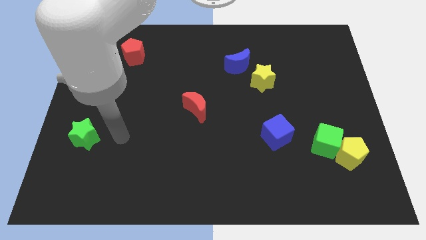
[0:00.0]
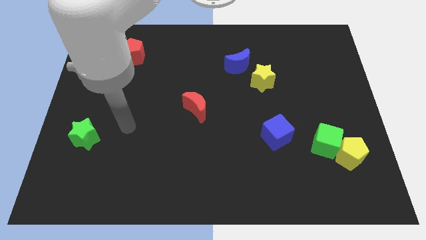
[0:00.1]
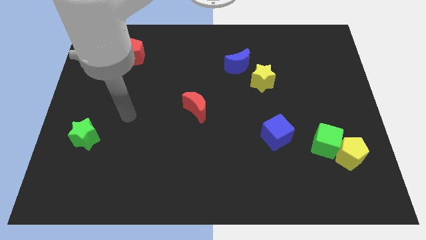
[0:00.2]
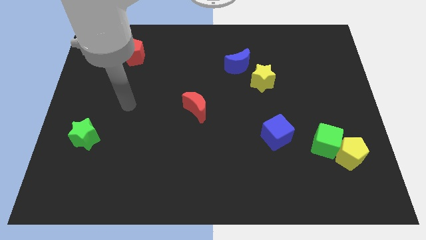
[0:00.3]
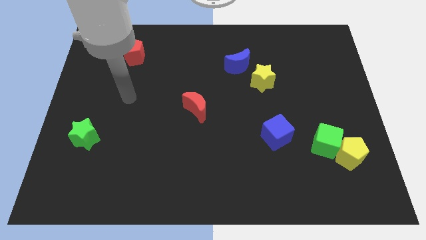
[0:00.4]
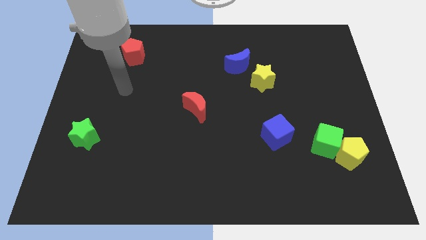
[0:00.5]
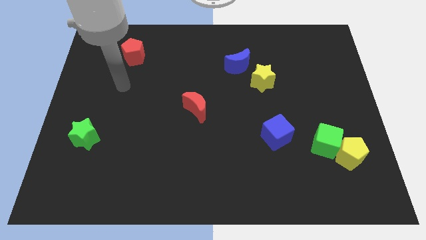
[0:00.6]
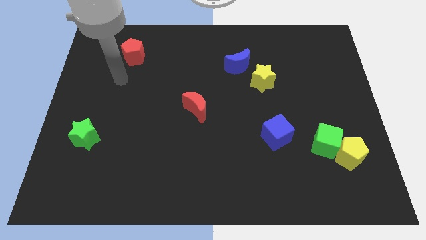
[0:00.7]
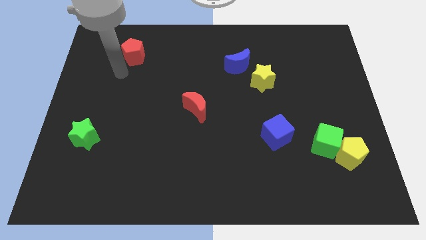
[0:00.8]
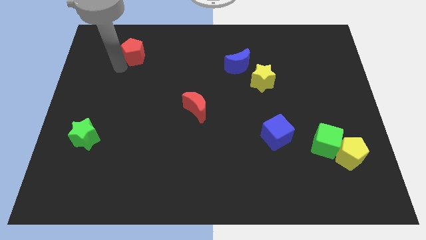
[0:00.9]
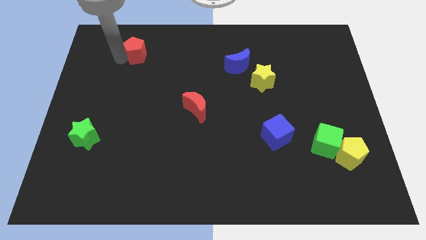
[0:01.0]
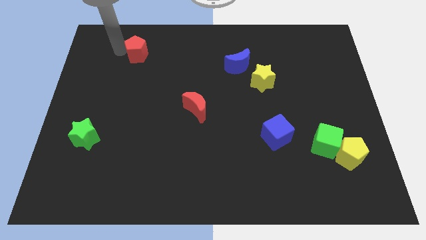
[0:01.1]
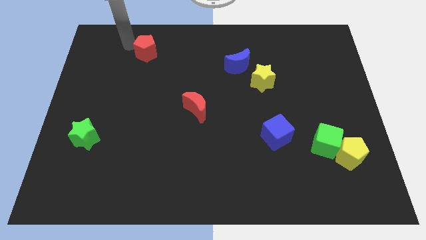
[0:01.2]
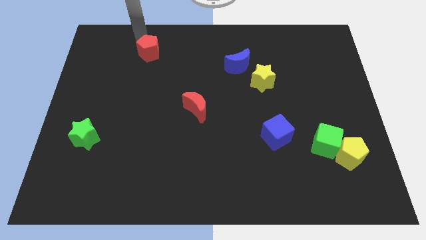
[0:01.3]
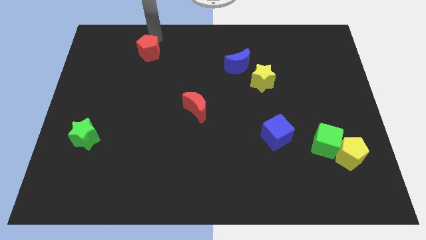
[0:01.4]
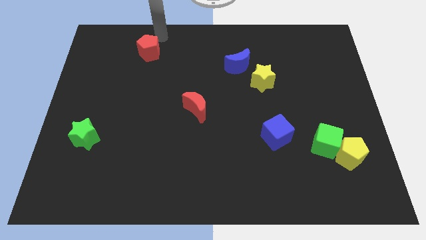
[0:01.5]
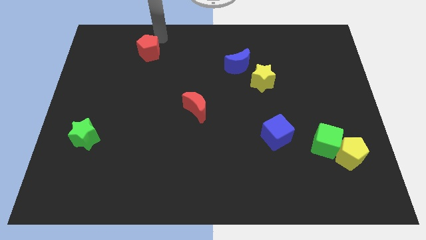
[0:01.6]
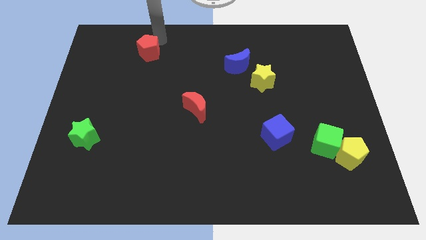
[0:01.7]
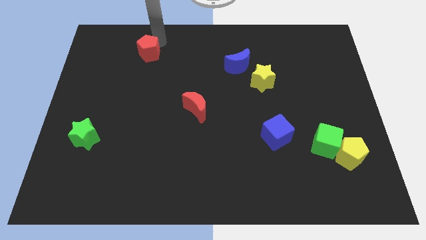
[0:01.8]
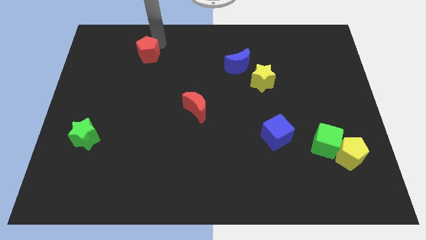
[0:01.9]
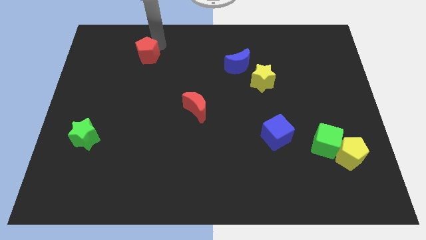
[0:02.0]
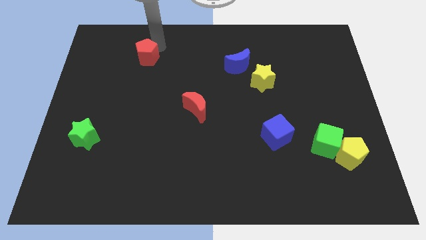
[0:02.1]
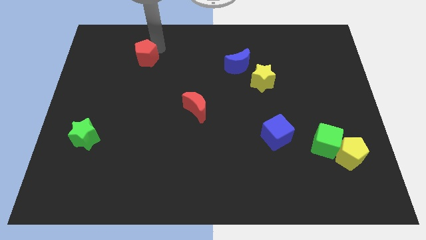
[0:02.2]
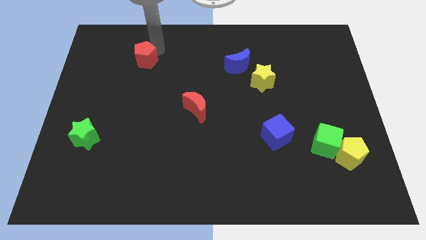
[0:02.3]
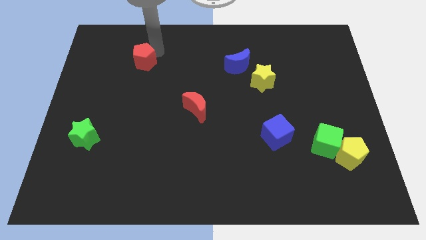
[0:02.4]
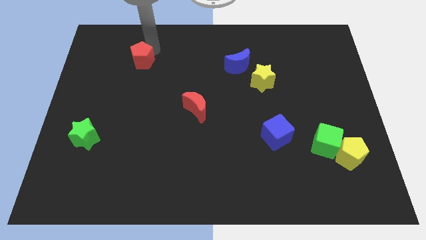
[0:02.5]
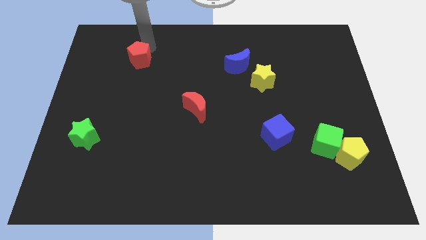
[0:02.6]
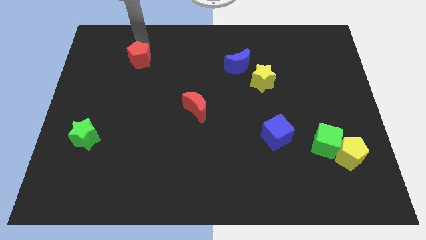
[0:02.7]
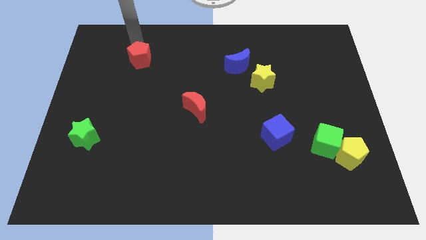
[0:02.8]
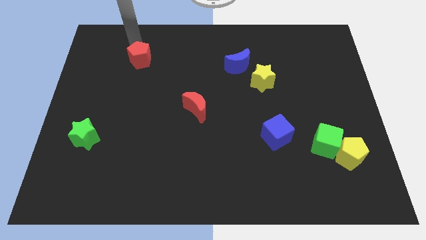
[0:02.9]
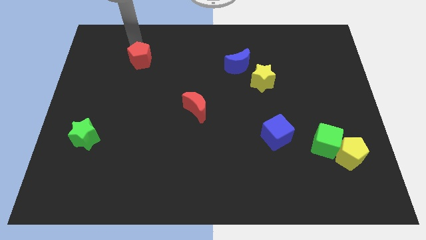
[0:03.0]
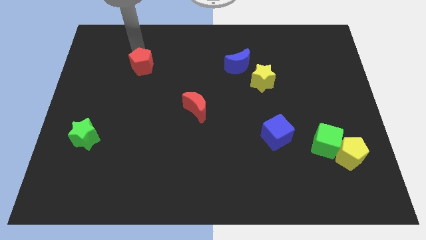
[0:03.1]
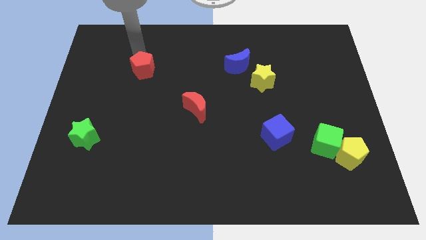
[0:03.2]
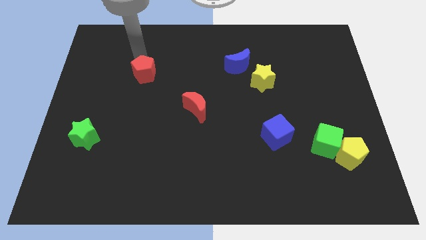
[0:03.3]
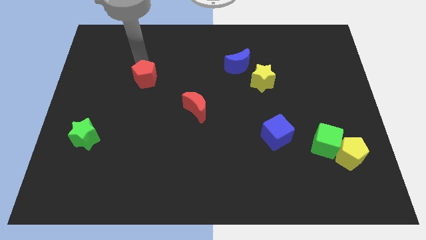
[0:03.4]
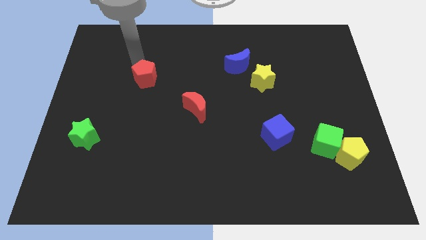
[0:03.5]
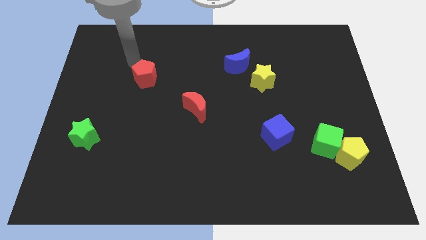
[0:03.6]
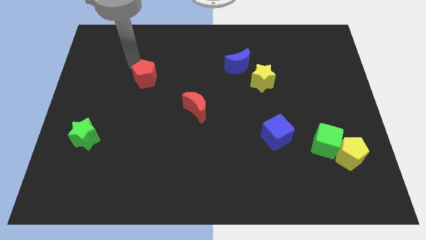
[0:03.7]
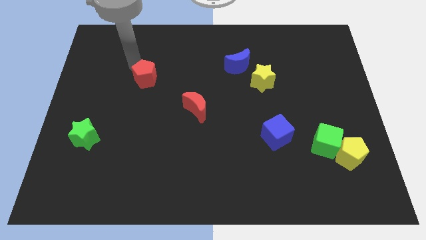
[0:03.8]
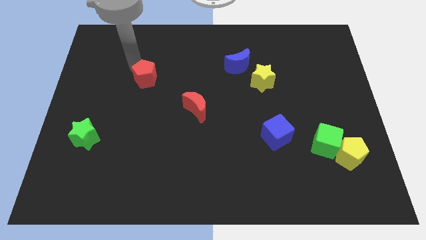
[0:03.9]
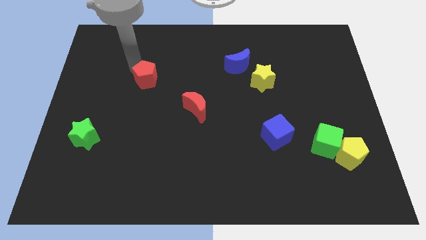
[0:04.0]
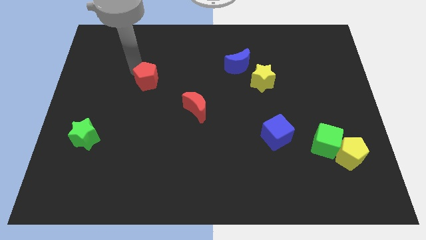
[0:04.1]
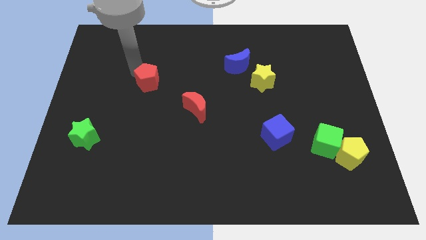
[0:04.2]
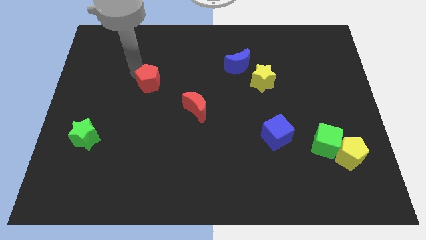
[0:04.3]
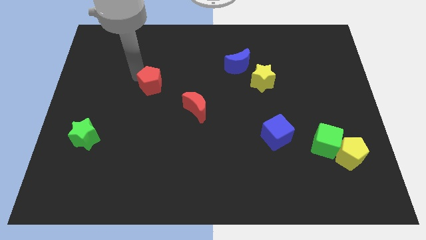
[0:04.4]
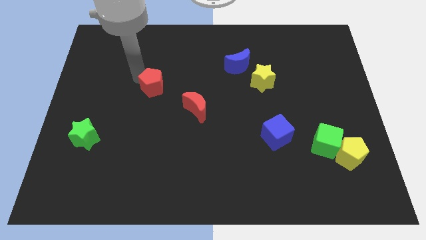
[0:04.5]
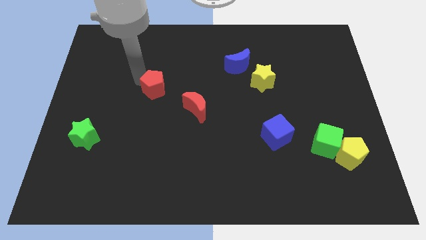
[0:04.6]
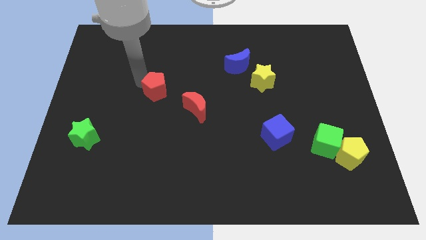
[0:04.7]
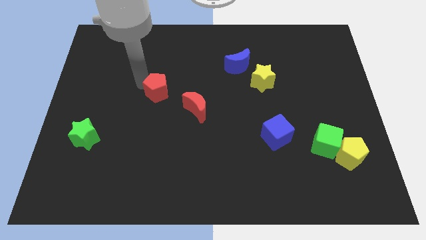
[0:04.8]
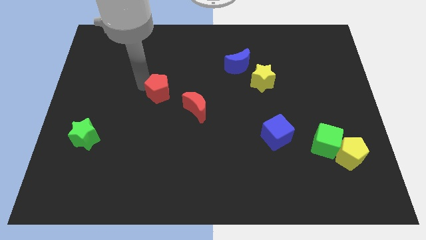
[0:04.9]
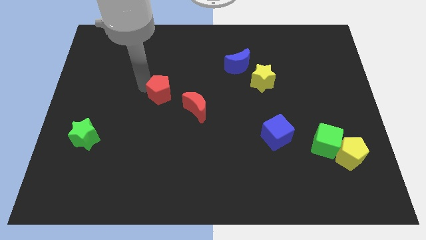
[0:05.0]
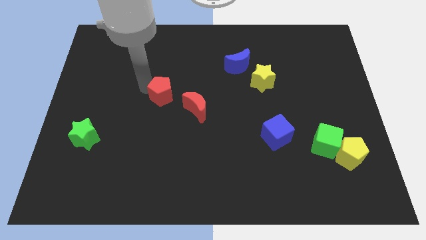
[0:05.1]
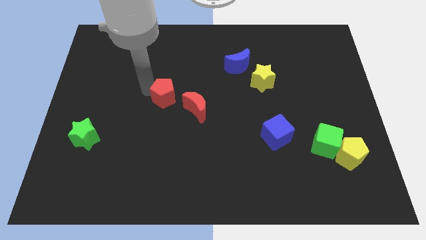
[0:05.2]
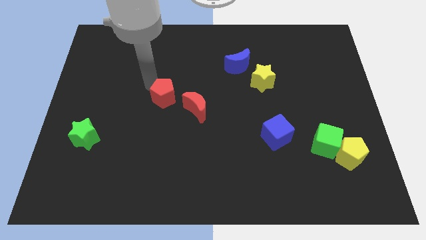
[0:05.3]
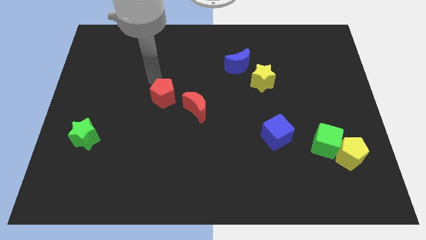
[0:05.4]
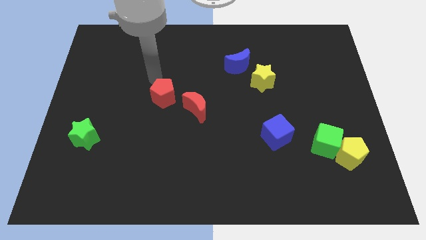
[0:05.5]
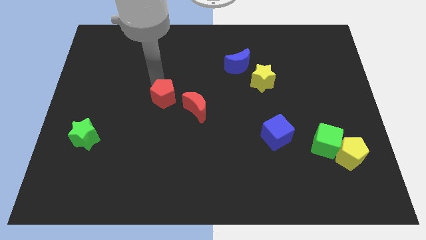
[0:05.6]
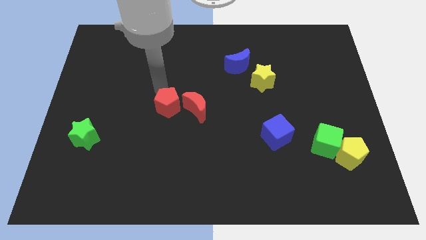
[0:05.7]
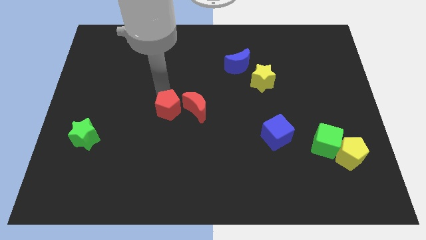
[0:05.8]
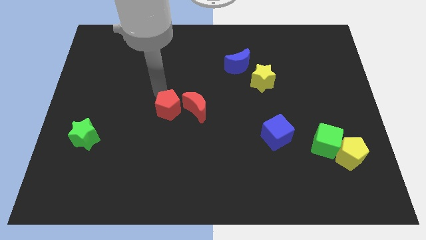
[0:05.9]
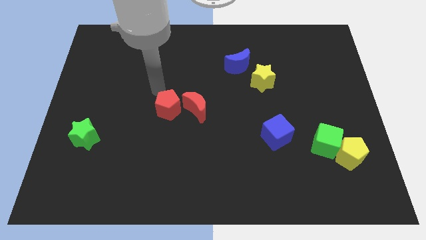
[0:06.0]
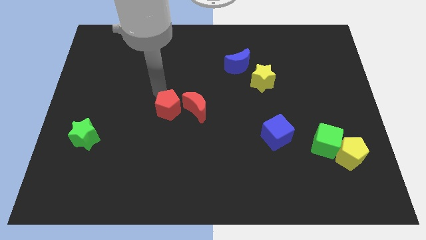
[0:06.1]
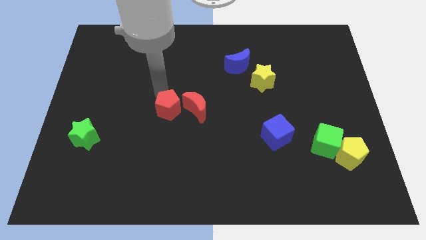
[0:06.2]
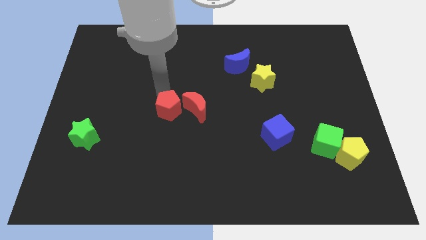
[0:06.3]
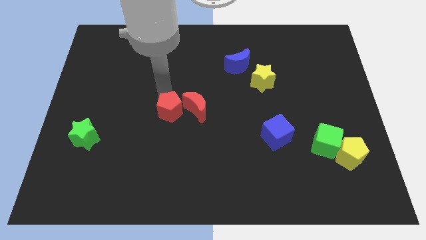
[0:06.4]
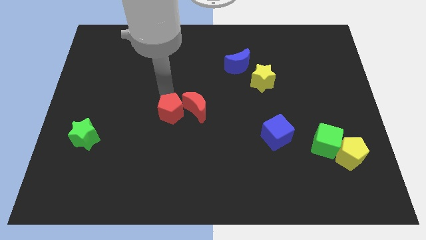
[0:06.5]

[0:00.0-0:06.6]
slide the red pentagon diagonally down and right

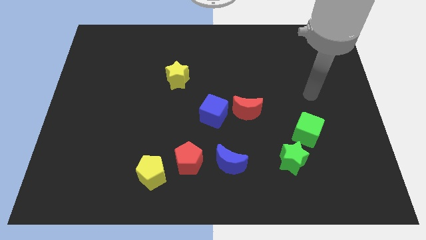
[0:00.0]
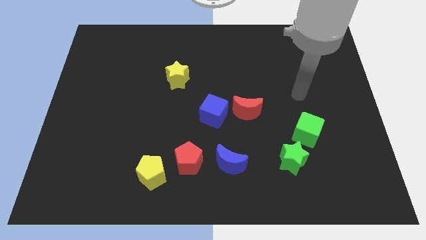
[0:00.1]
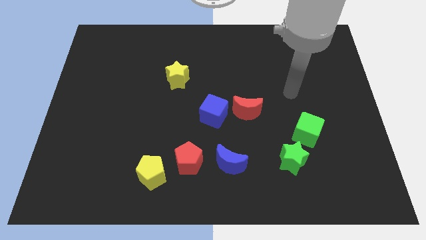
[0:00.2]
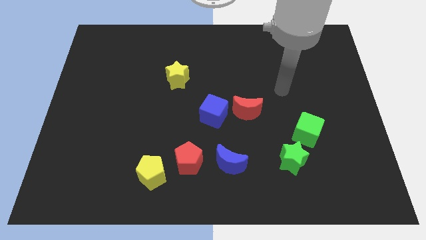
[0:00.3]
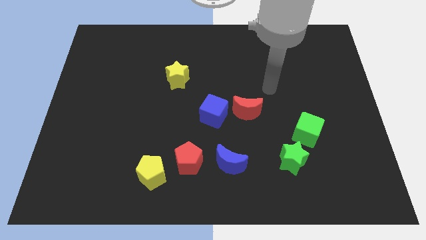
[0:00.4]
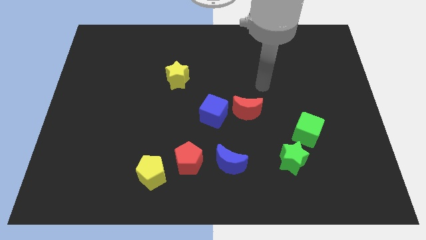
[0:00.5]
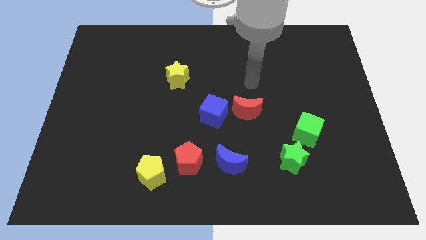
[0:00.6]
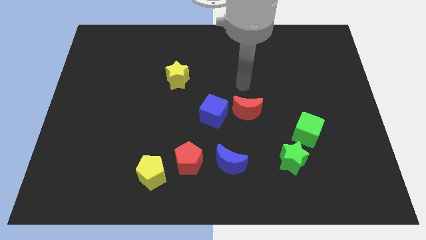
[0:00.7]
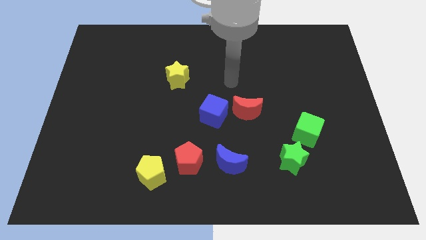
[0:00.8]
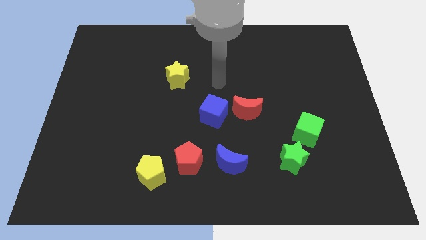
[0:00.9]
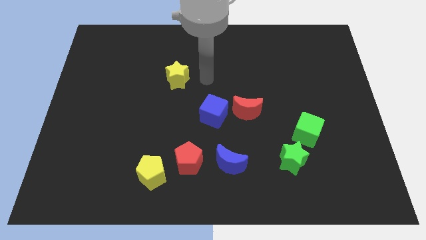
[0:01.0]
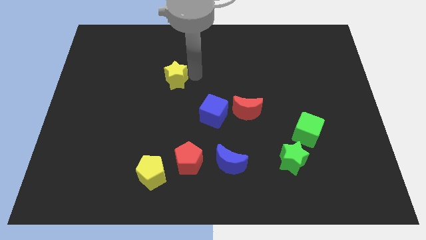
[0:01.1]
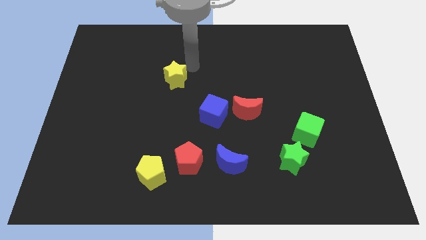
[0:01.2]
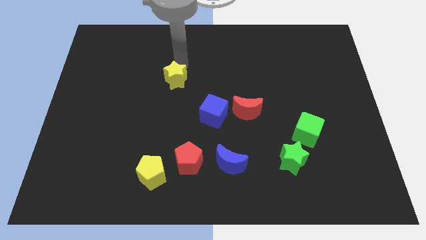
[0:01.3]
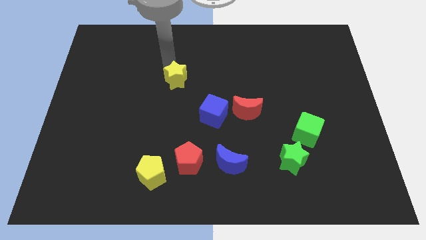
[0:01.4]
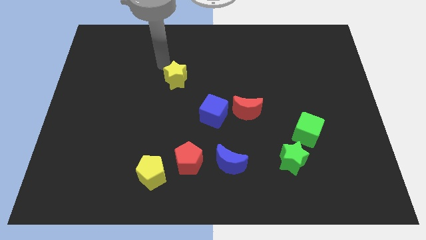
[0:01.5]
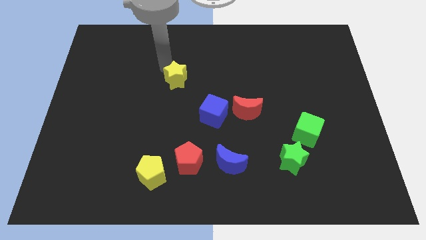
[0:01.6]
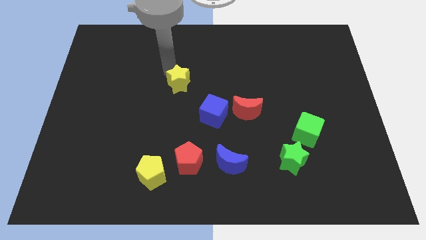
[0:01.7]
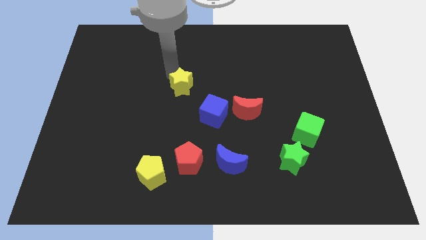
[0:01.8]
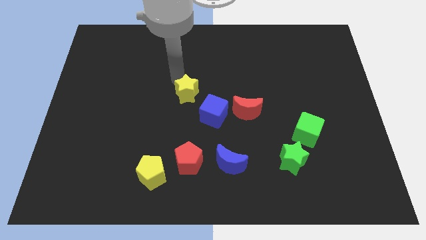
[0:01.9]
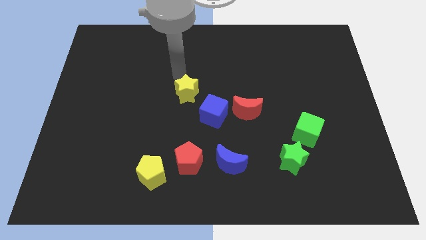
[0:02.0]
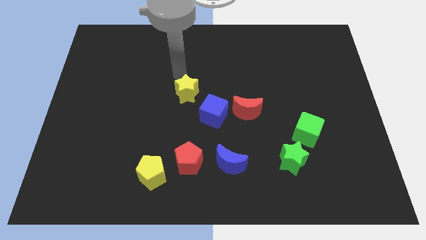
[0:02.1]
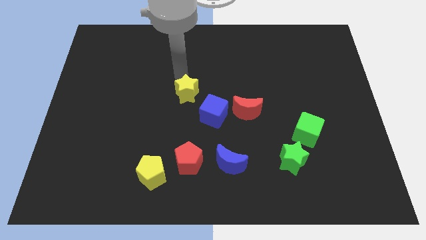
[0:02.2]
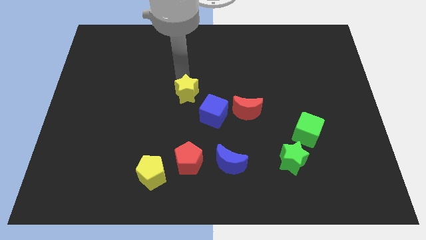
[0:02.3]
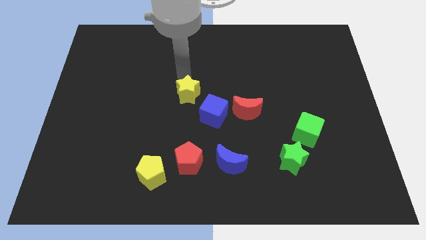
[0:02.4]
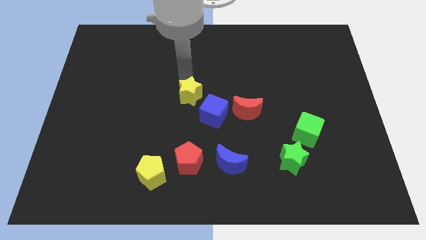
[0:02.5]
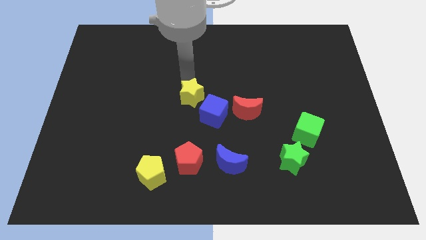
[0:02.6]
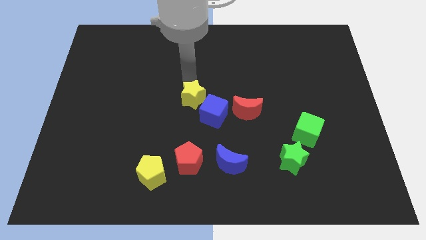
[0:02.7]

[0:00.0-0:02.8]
slightly slide the yellow star diagonally down and to the right
